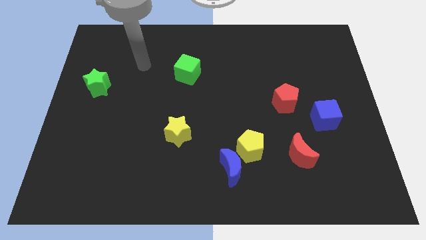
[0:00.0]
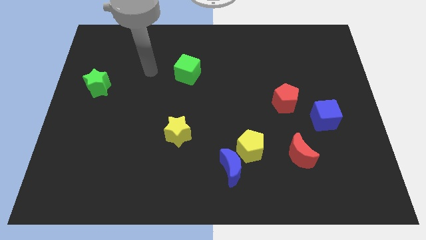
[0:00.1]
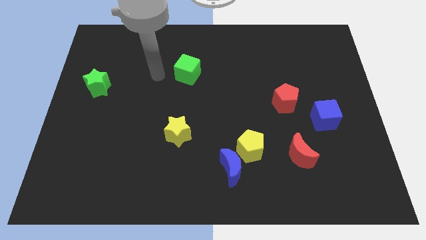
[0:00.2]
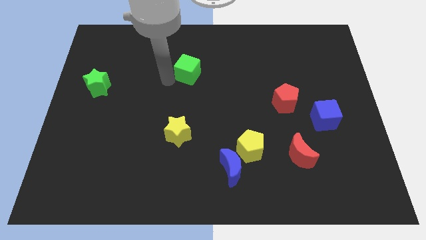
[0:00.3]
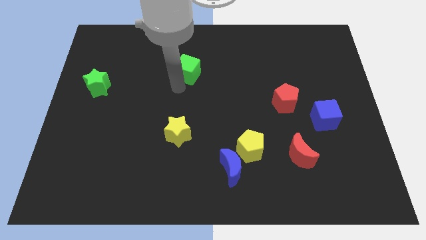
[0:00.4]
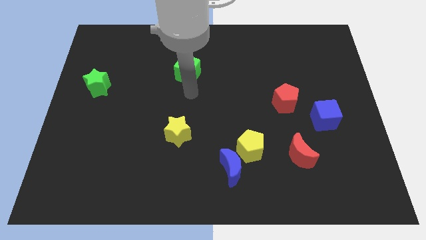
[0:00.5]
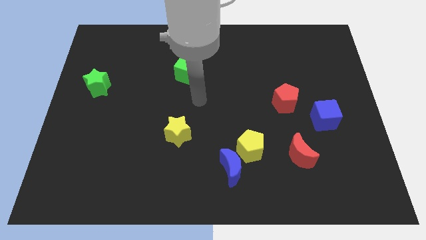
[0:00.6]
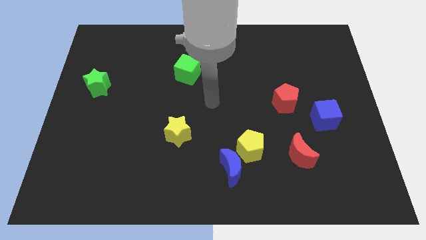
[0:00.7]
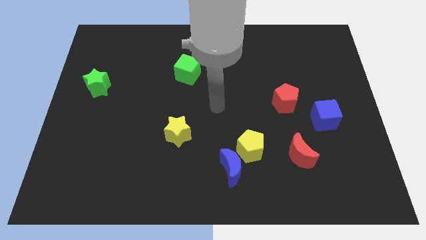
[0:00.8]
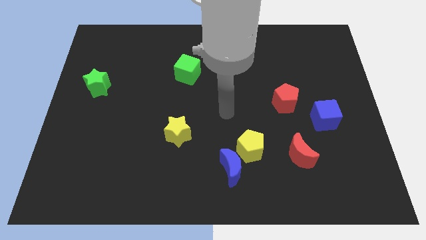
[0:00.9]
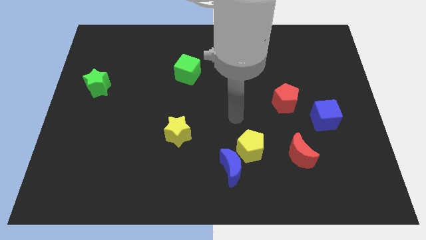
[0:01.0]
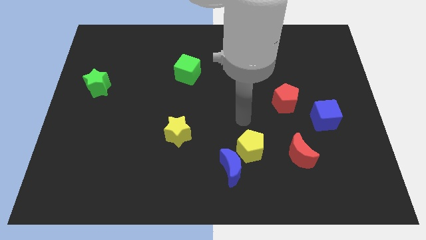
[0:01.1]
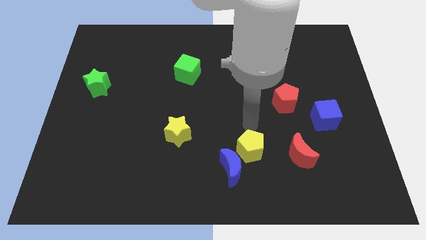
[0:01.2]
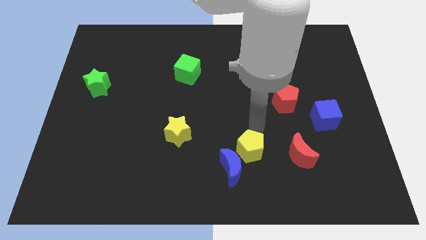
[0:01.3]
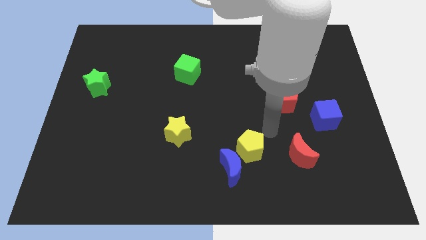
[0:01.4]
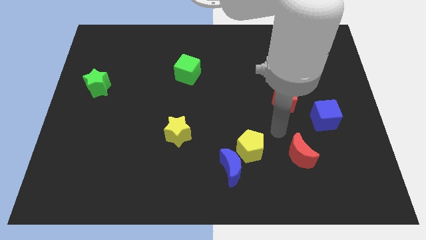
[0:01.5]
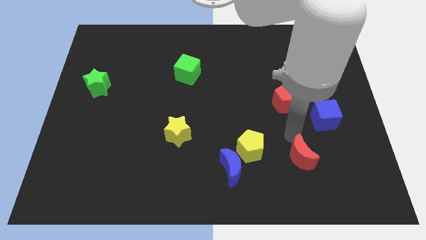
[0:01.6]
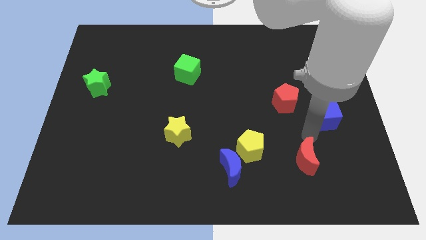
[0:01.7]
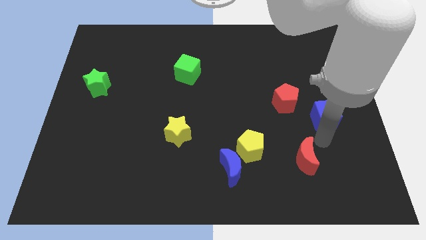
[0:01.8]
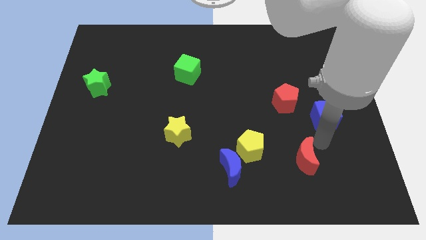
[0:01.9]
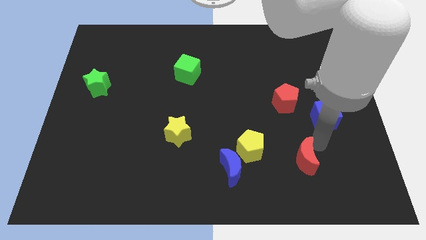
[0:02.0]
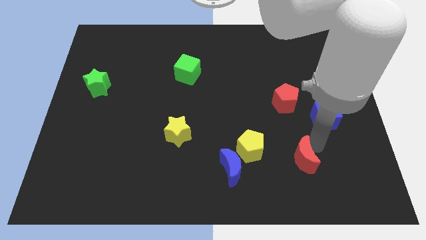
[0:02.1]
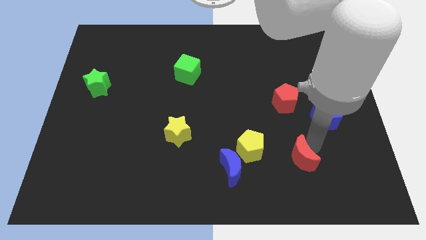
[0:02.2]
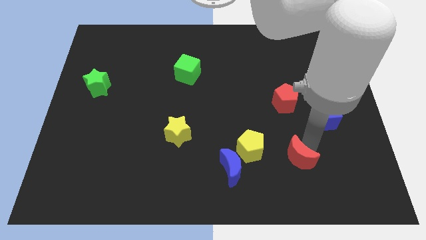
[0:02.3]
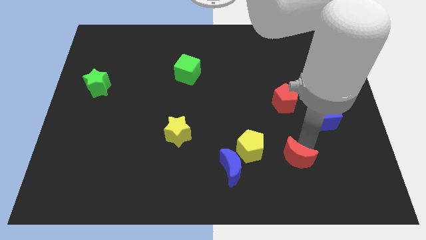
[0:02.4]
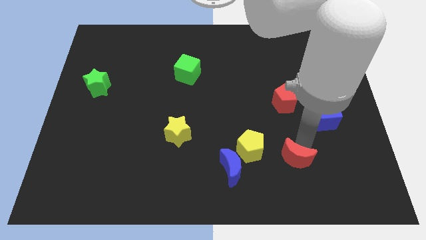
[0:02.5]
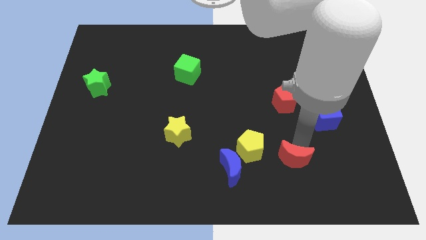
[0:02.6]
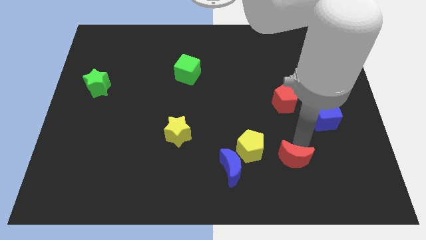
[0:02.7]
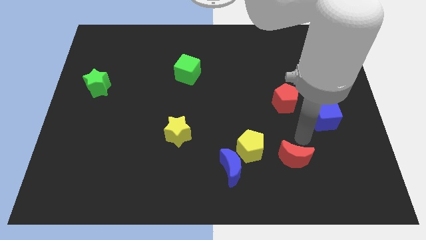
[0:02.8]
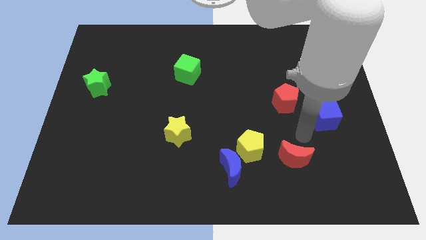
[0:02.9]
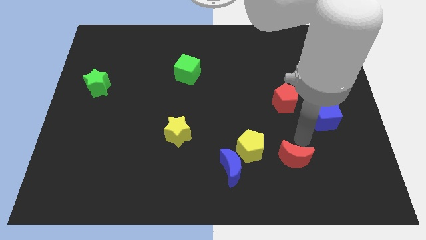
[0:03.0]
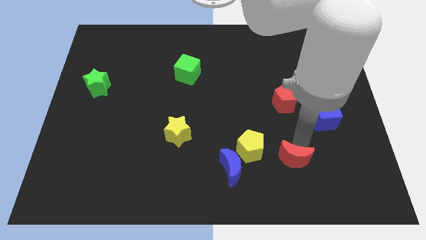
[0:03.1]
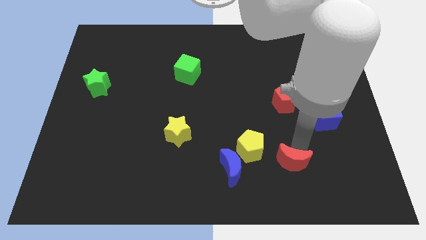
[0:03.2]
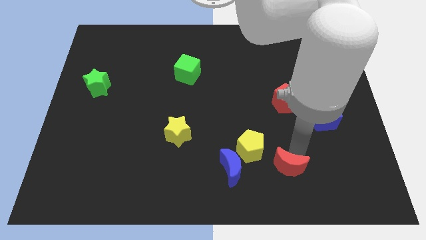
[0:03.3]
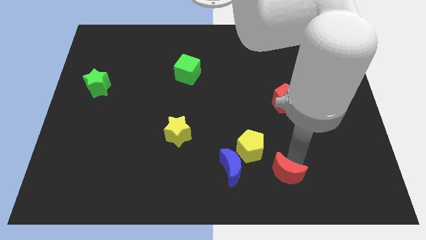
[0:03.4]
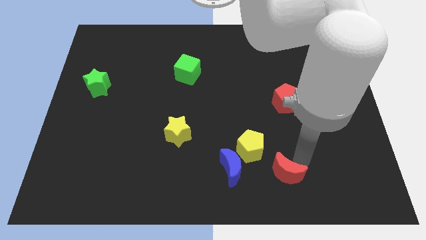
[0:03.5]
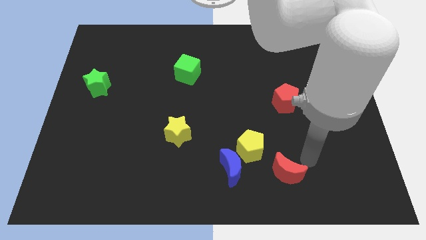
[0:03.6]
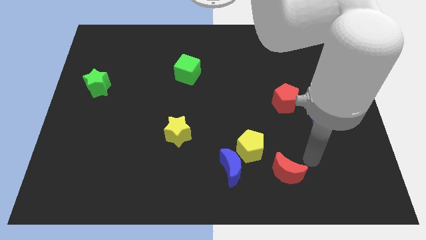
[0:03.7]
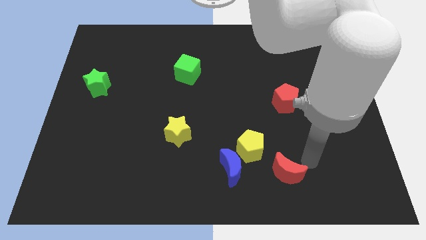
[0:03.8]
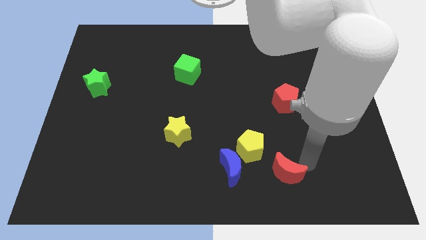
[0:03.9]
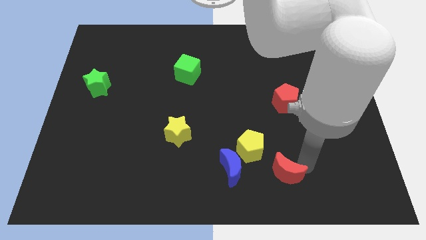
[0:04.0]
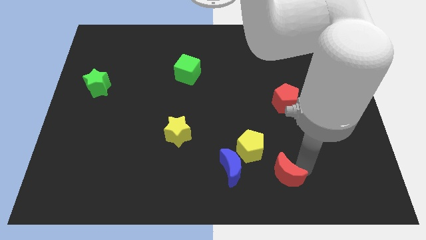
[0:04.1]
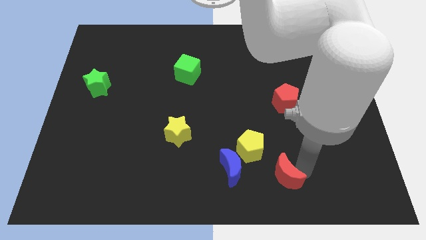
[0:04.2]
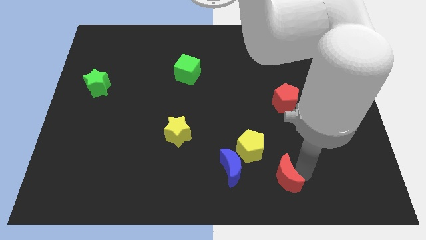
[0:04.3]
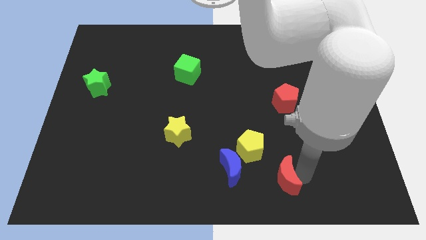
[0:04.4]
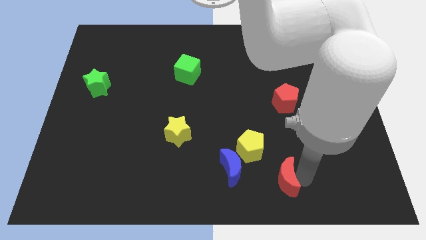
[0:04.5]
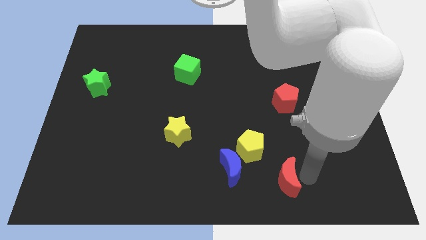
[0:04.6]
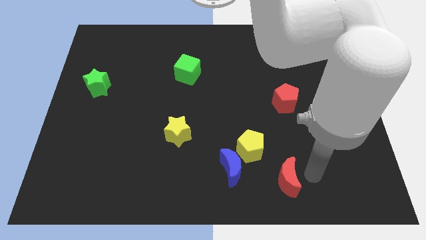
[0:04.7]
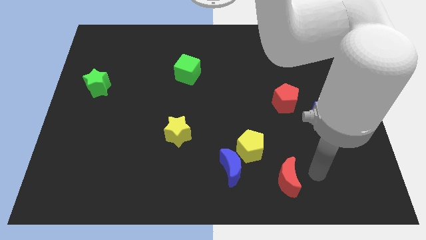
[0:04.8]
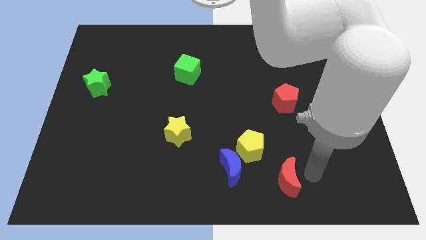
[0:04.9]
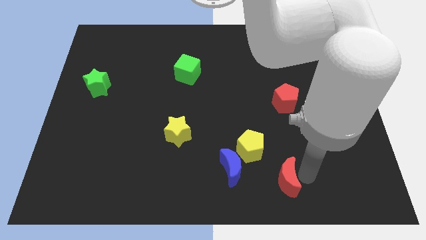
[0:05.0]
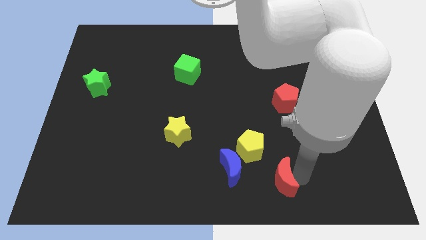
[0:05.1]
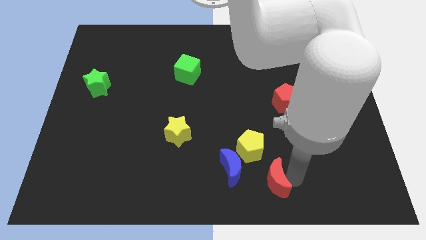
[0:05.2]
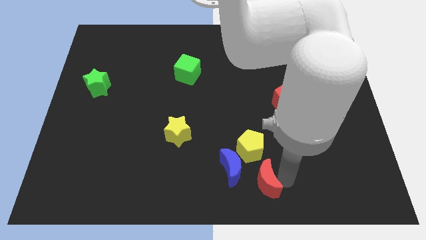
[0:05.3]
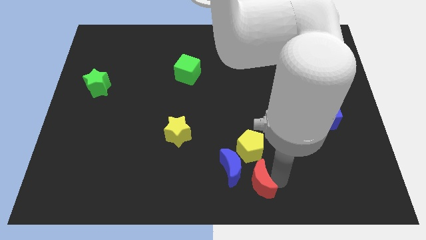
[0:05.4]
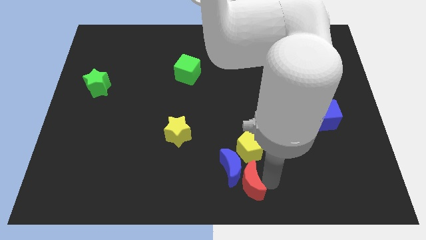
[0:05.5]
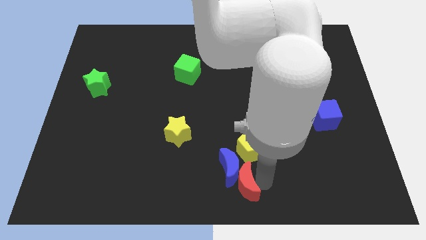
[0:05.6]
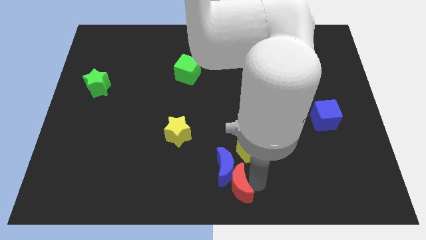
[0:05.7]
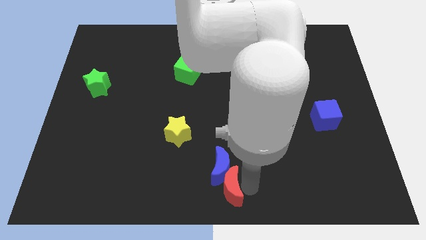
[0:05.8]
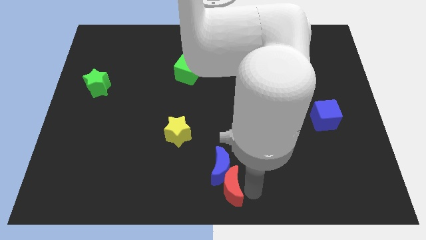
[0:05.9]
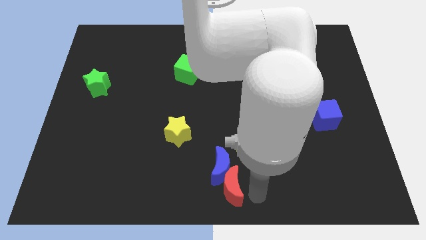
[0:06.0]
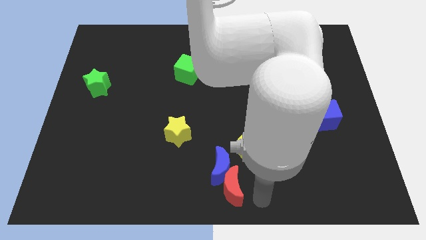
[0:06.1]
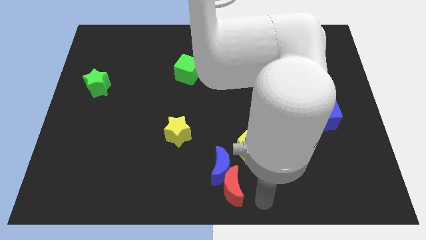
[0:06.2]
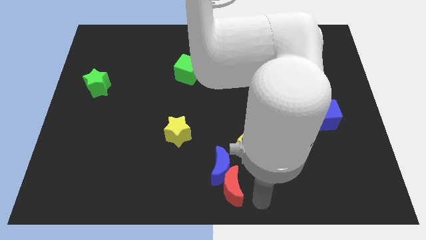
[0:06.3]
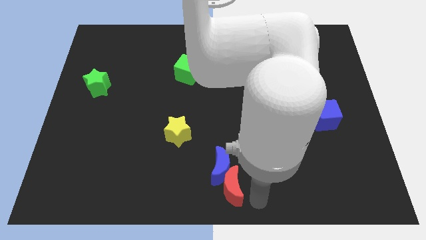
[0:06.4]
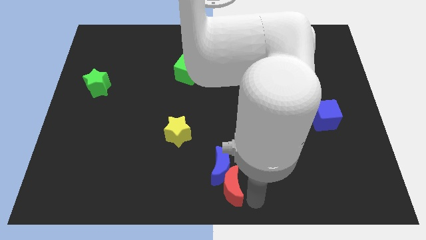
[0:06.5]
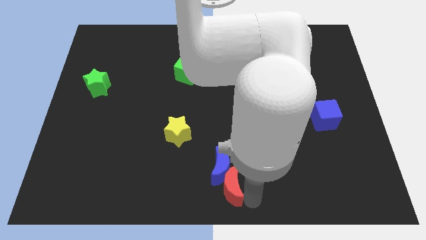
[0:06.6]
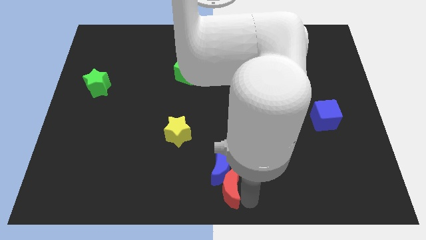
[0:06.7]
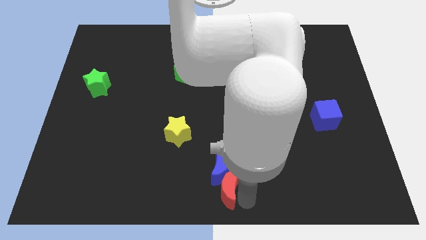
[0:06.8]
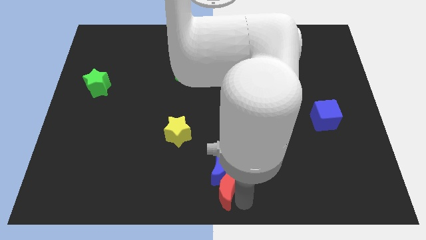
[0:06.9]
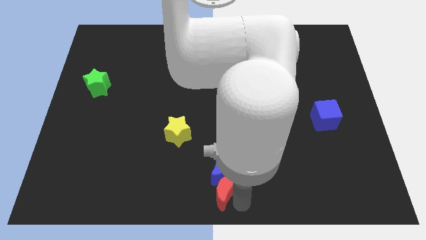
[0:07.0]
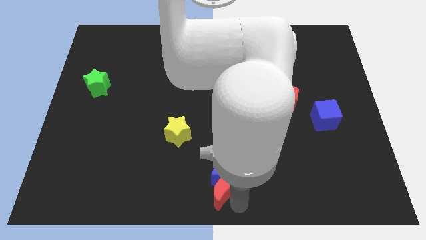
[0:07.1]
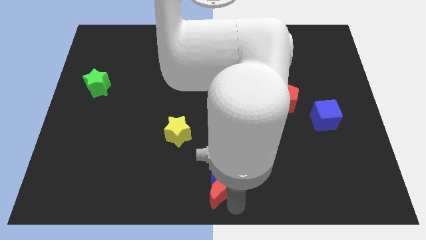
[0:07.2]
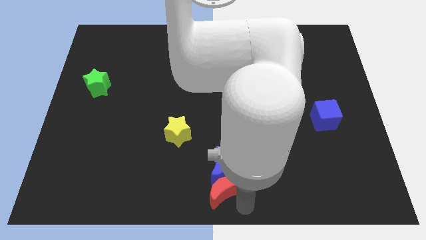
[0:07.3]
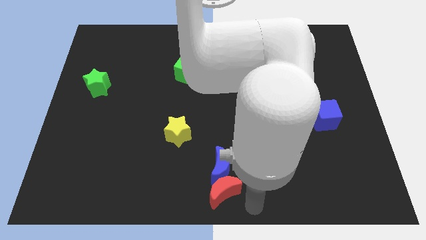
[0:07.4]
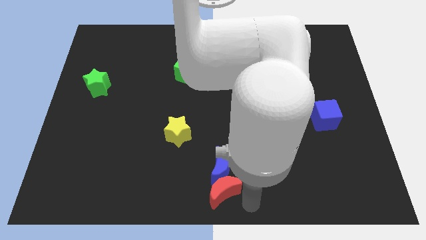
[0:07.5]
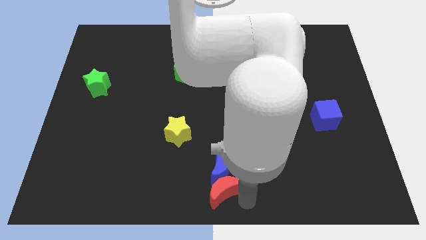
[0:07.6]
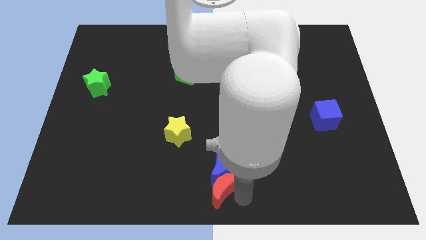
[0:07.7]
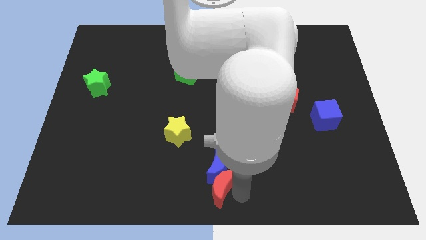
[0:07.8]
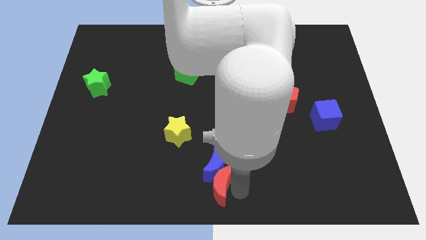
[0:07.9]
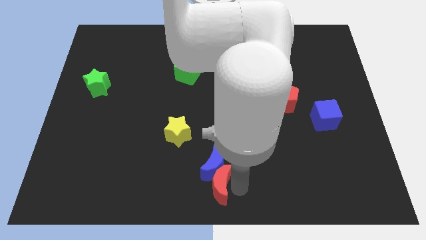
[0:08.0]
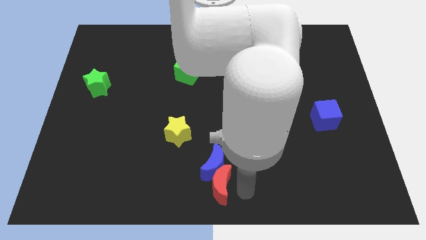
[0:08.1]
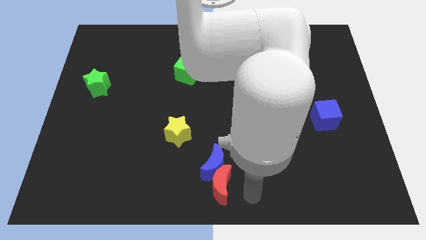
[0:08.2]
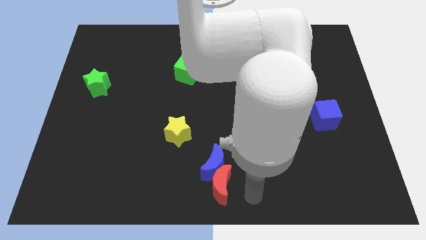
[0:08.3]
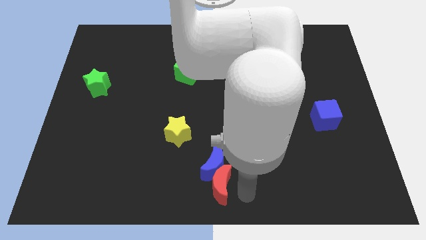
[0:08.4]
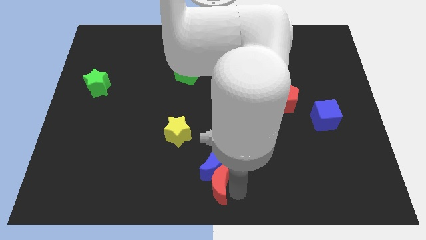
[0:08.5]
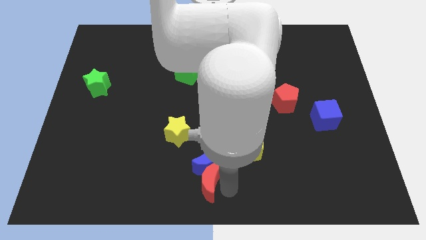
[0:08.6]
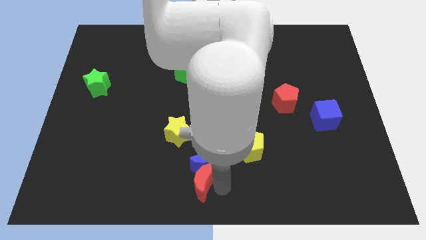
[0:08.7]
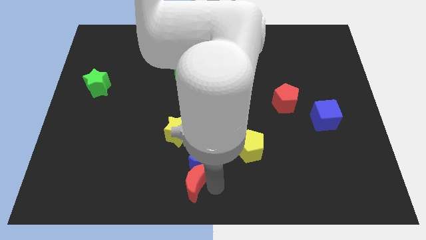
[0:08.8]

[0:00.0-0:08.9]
move the red moon left
